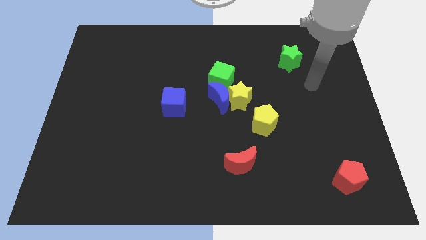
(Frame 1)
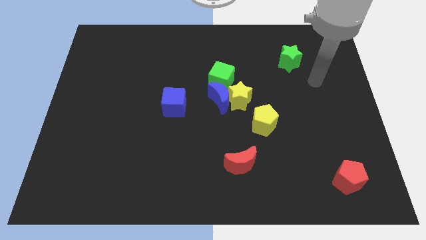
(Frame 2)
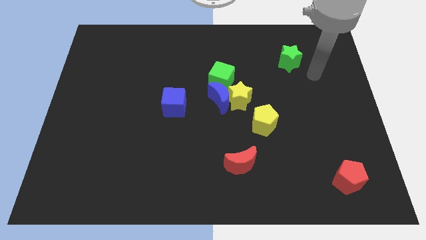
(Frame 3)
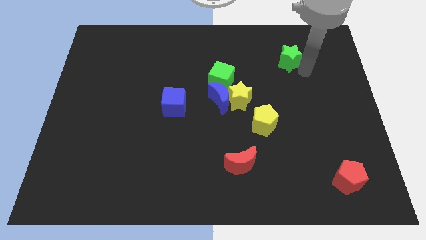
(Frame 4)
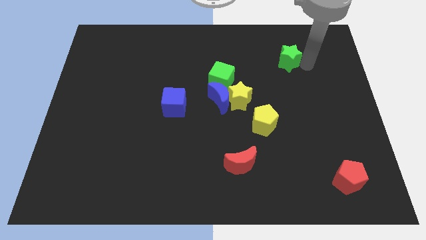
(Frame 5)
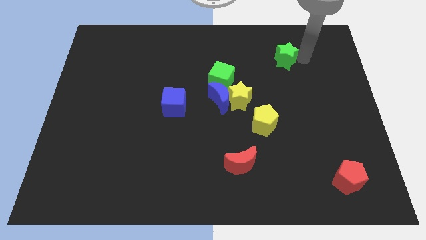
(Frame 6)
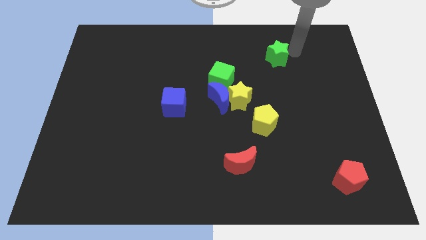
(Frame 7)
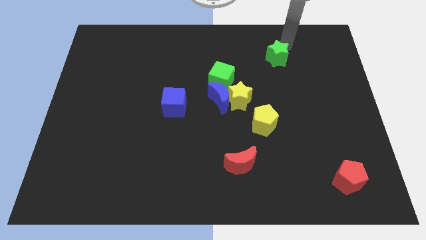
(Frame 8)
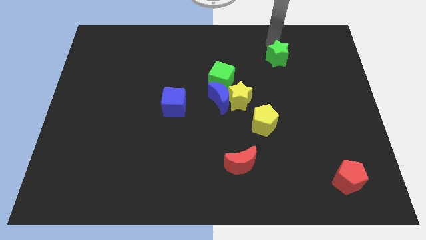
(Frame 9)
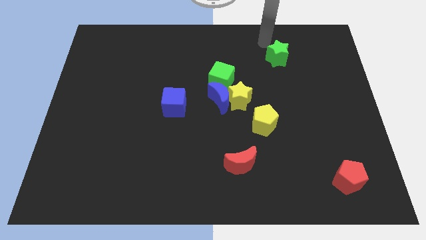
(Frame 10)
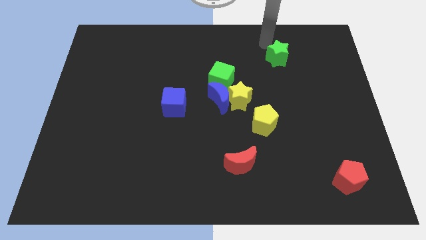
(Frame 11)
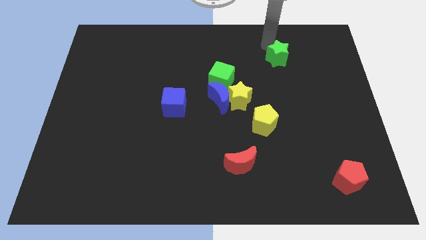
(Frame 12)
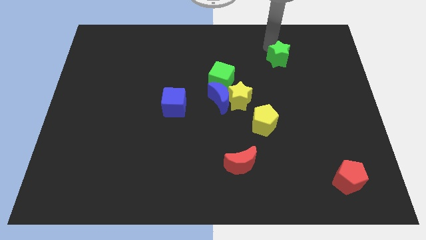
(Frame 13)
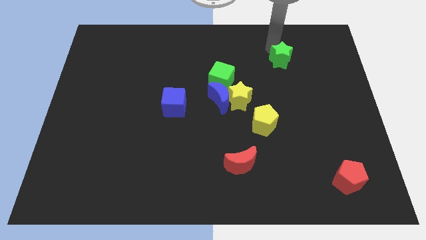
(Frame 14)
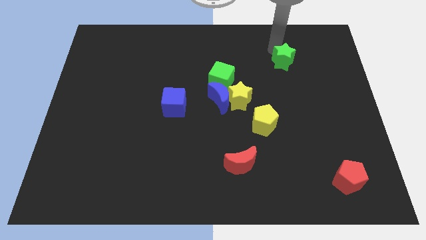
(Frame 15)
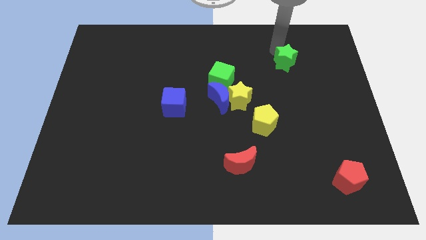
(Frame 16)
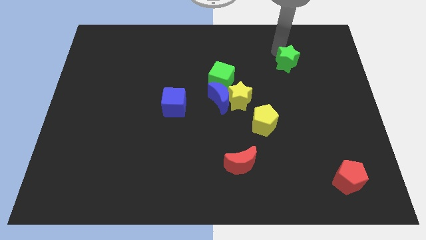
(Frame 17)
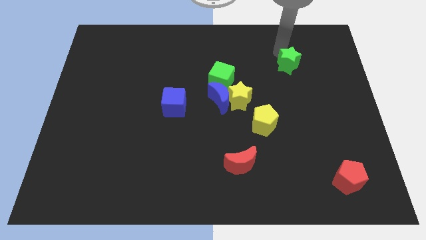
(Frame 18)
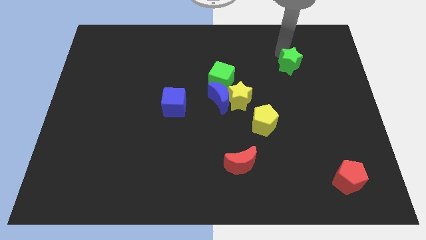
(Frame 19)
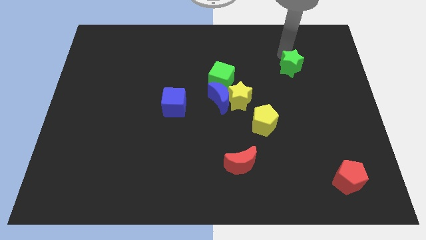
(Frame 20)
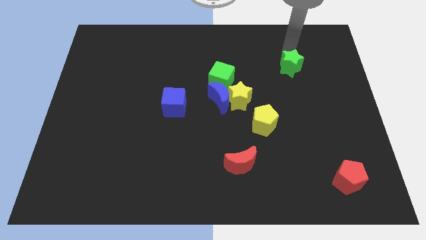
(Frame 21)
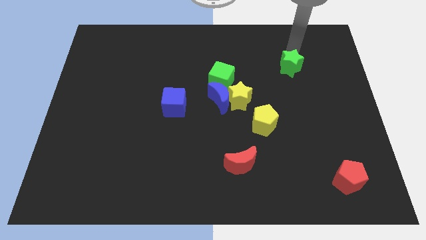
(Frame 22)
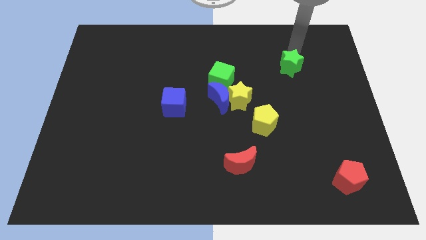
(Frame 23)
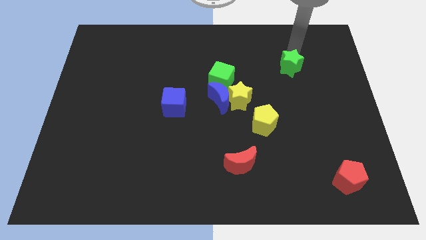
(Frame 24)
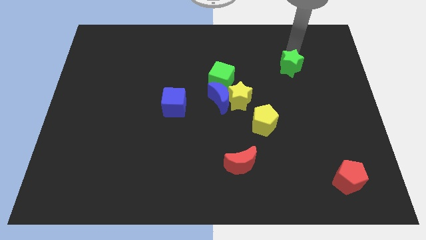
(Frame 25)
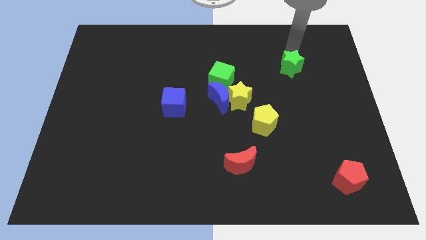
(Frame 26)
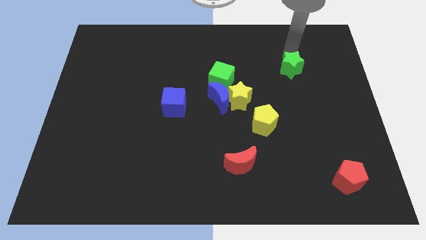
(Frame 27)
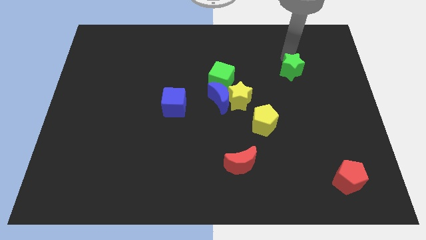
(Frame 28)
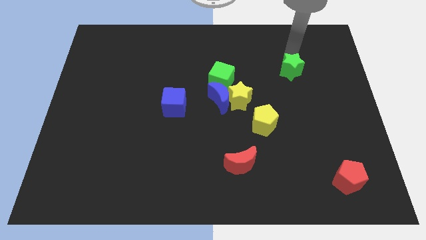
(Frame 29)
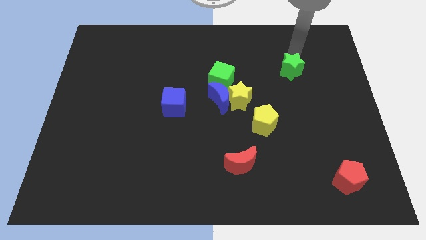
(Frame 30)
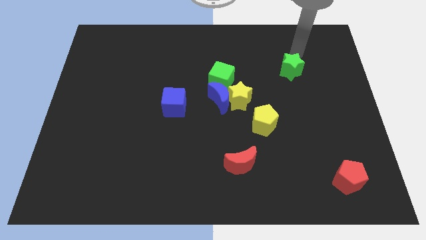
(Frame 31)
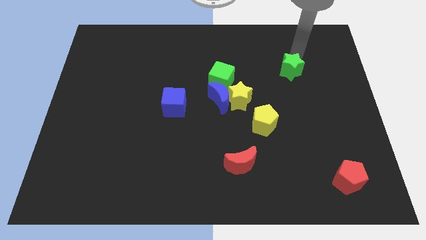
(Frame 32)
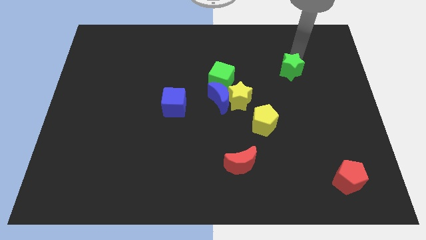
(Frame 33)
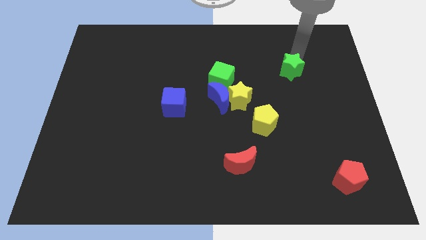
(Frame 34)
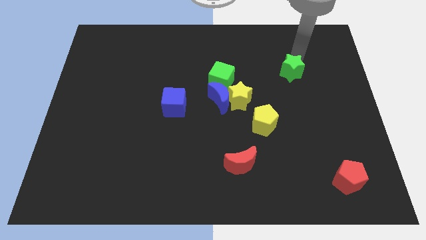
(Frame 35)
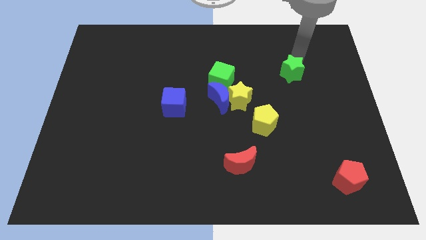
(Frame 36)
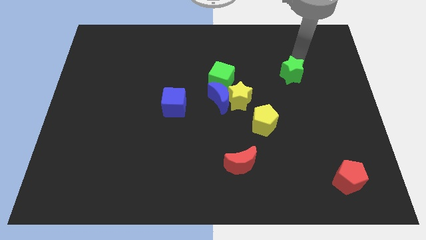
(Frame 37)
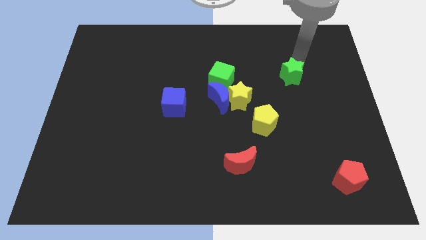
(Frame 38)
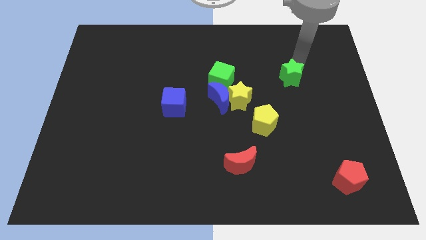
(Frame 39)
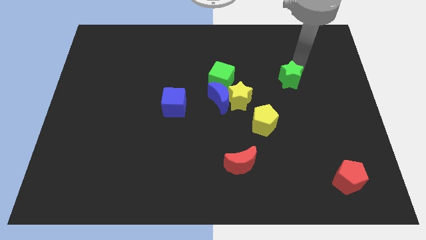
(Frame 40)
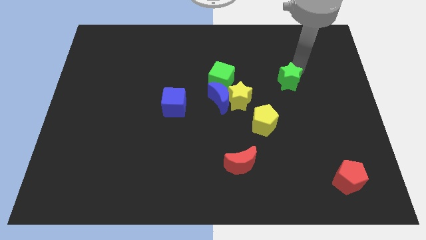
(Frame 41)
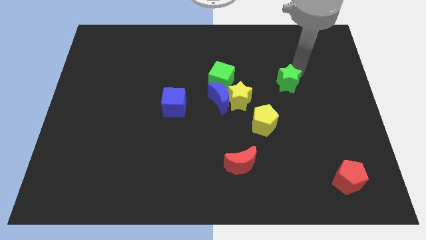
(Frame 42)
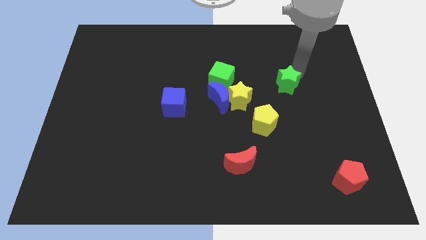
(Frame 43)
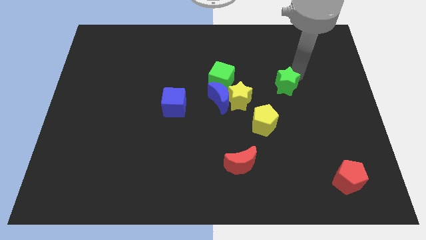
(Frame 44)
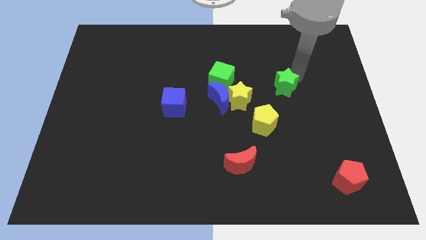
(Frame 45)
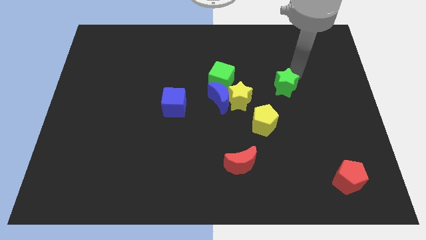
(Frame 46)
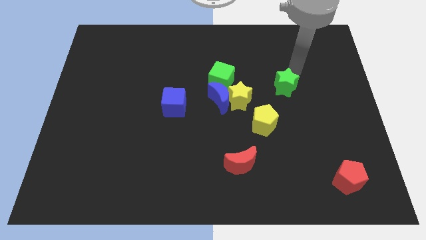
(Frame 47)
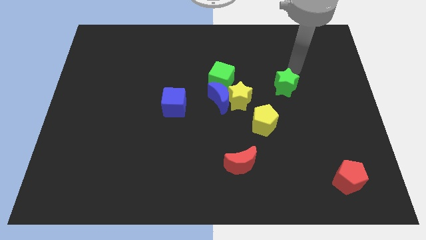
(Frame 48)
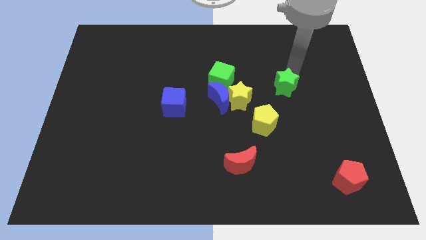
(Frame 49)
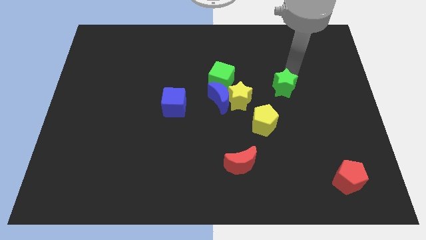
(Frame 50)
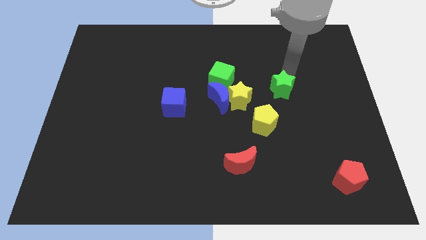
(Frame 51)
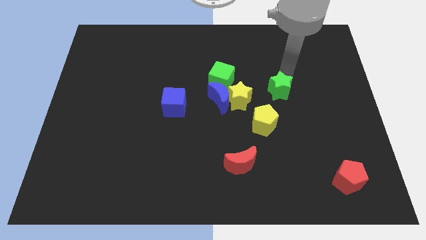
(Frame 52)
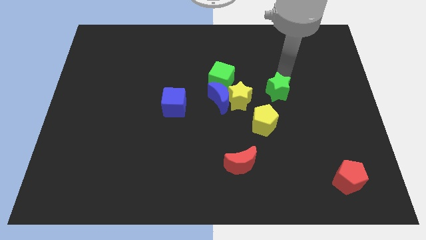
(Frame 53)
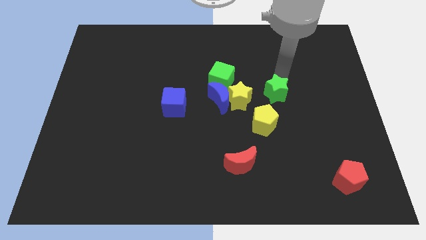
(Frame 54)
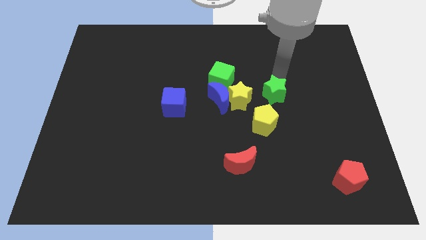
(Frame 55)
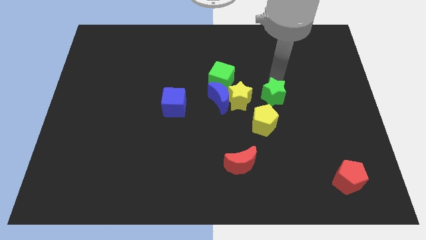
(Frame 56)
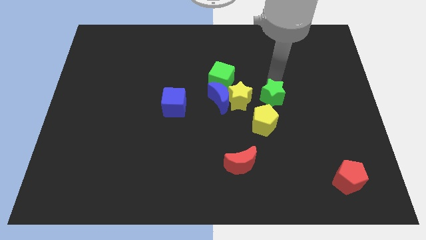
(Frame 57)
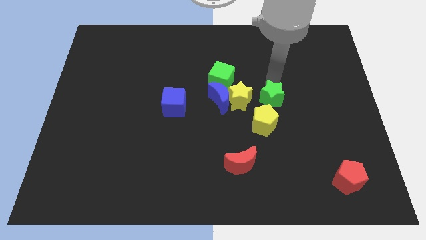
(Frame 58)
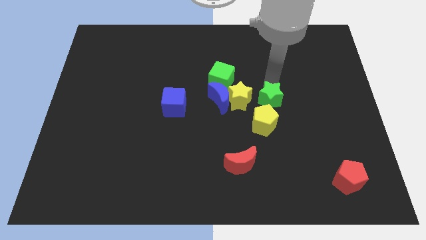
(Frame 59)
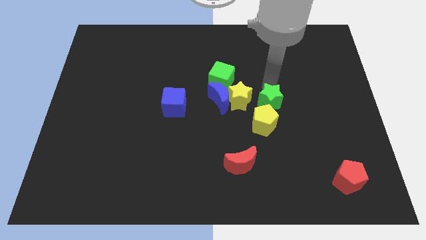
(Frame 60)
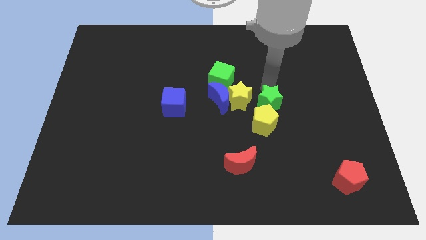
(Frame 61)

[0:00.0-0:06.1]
move the green star to the yellow pentagon

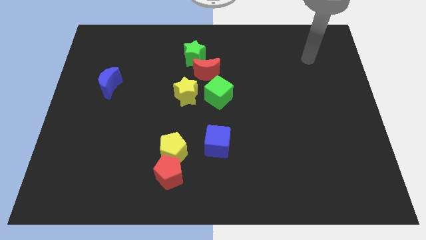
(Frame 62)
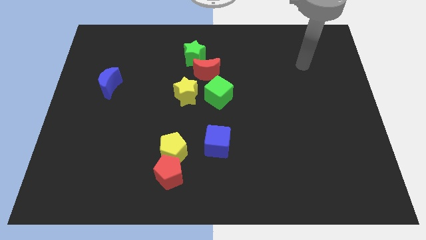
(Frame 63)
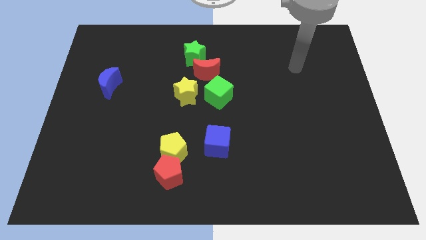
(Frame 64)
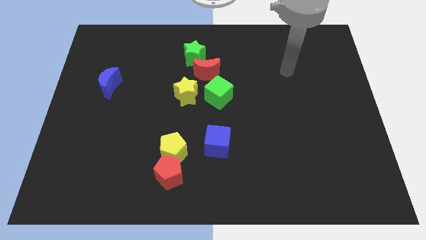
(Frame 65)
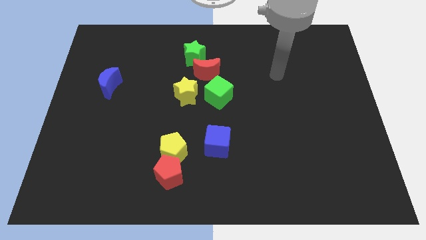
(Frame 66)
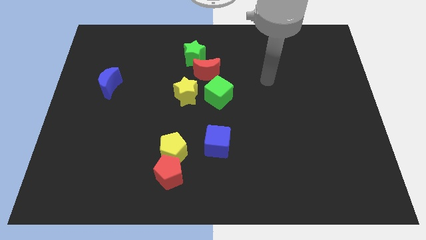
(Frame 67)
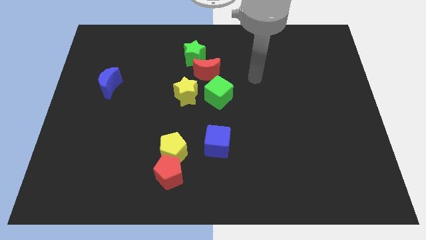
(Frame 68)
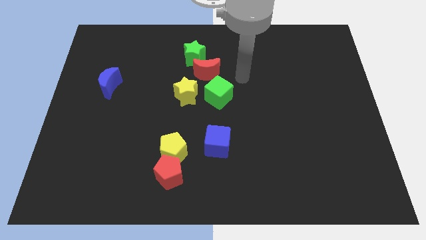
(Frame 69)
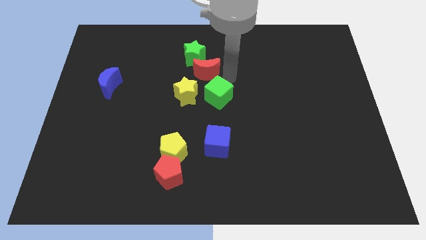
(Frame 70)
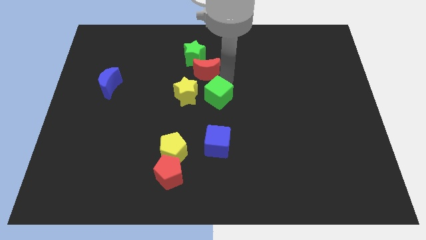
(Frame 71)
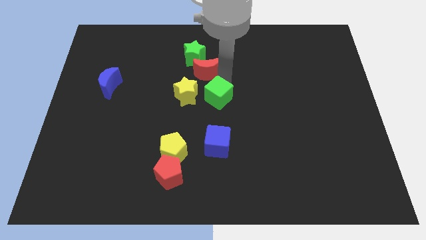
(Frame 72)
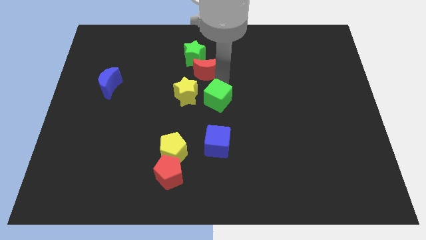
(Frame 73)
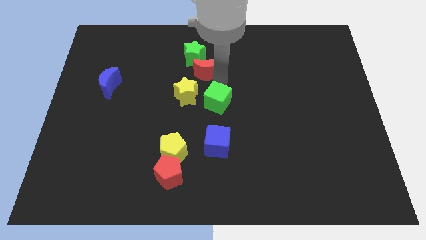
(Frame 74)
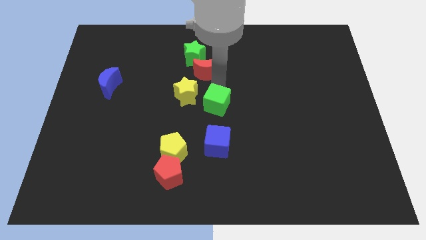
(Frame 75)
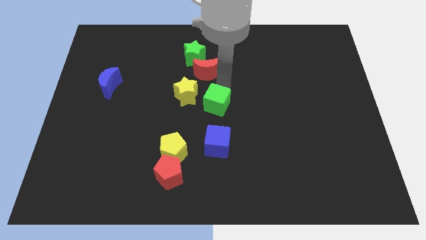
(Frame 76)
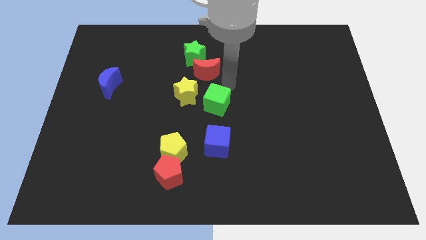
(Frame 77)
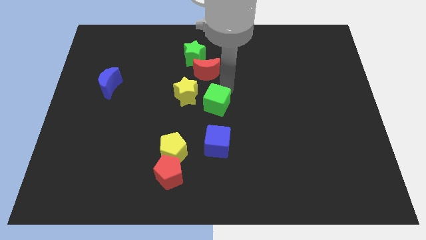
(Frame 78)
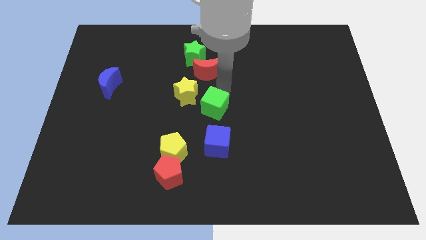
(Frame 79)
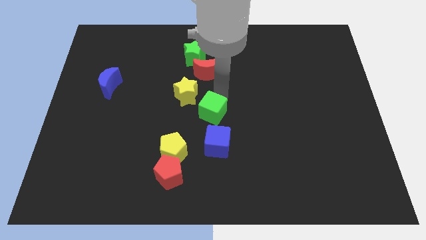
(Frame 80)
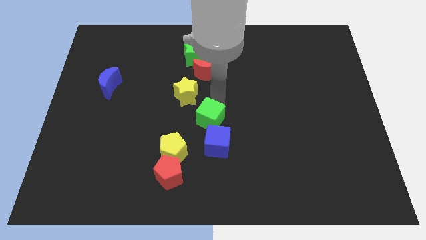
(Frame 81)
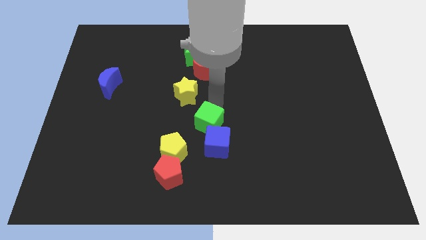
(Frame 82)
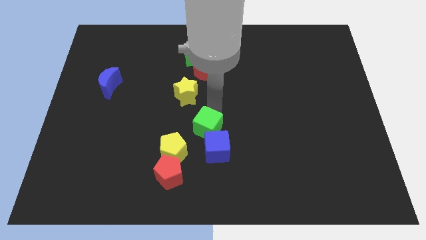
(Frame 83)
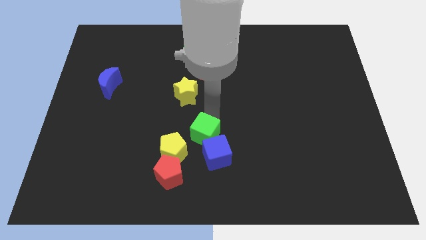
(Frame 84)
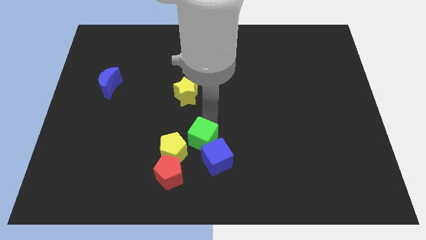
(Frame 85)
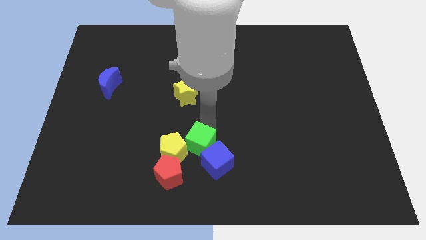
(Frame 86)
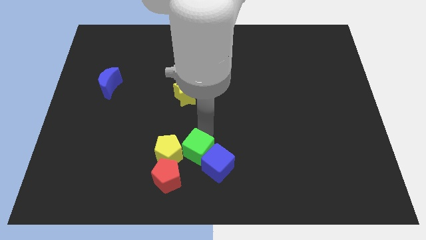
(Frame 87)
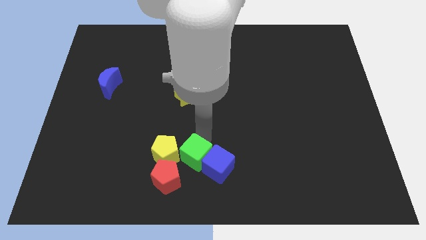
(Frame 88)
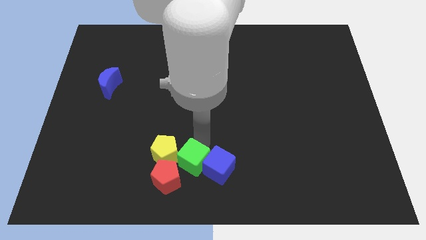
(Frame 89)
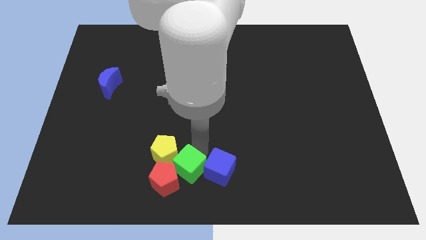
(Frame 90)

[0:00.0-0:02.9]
push the green cube close to the red pentagon
